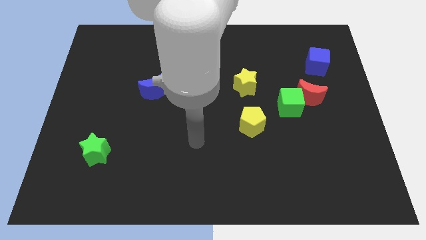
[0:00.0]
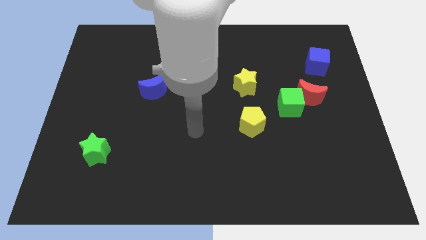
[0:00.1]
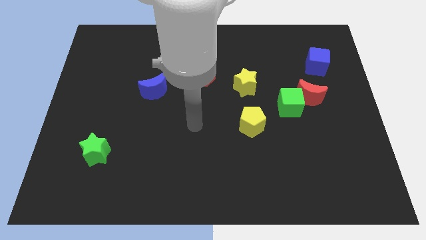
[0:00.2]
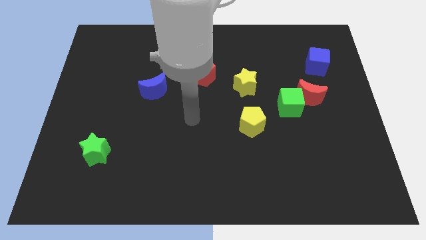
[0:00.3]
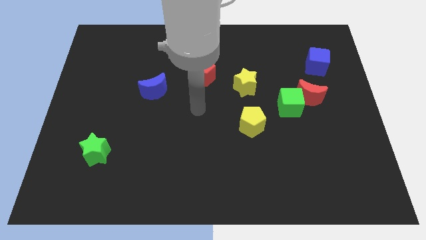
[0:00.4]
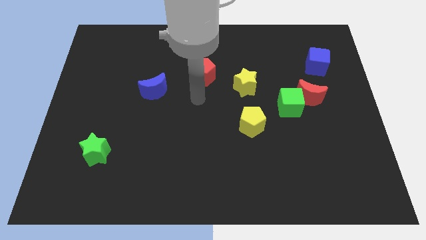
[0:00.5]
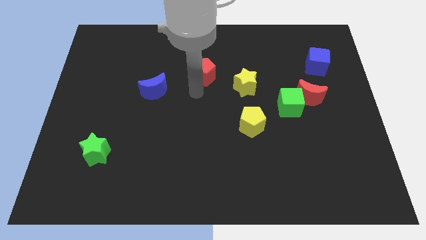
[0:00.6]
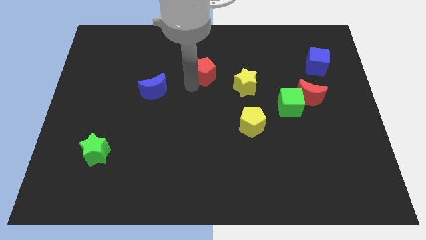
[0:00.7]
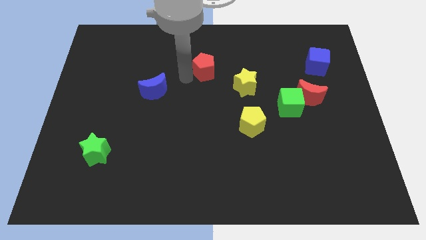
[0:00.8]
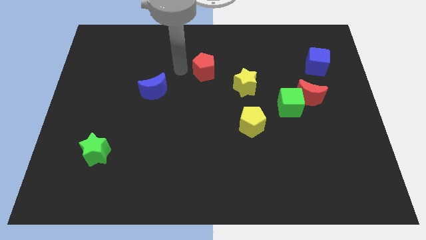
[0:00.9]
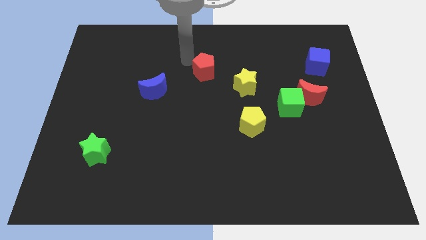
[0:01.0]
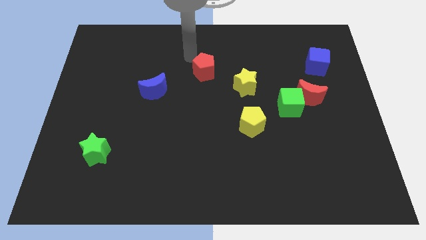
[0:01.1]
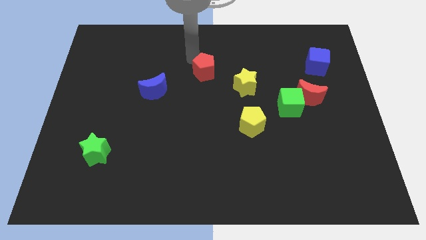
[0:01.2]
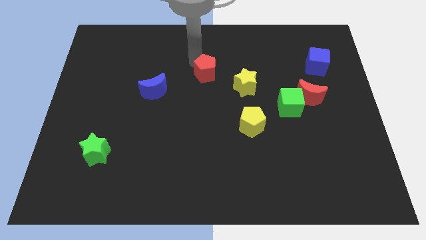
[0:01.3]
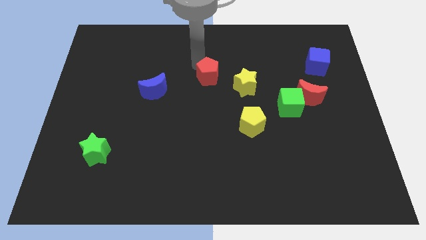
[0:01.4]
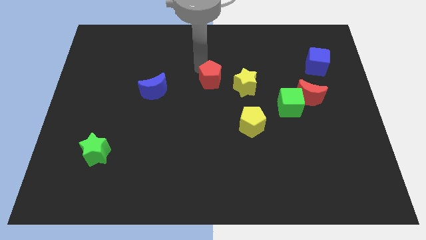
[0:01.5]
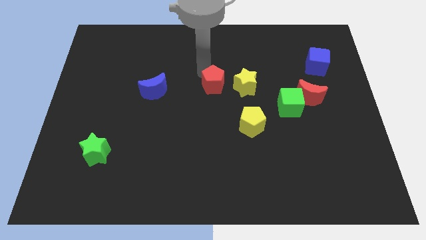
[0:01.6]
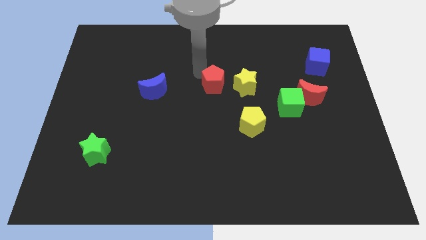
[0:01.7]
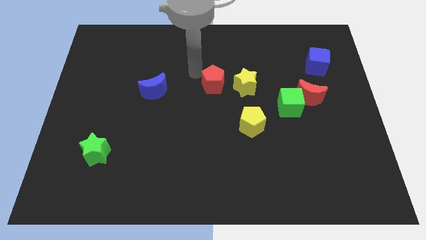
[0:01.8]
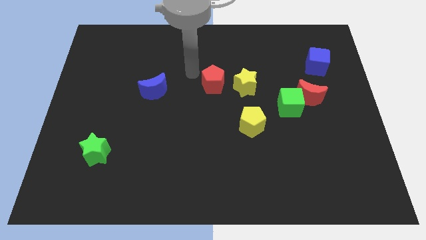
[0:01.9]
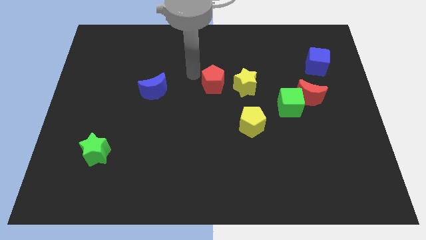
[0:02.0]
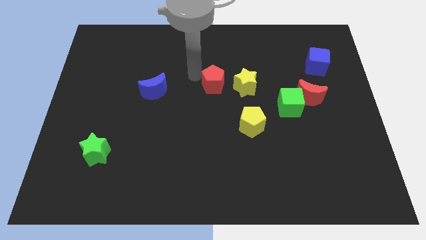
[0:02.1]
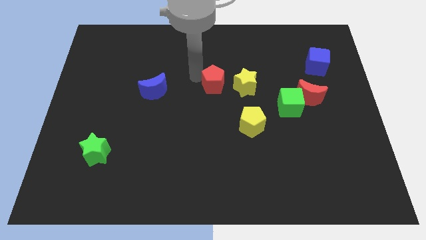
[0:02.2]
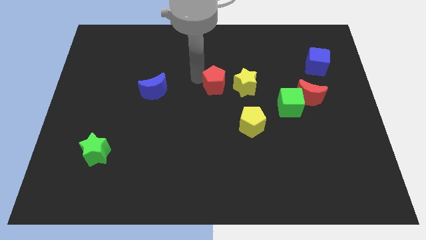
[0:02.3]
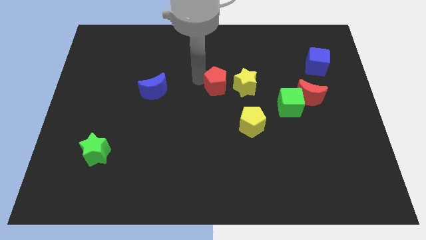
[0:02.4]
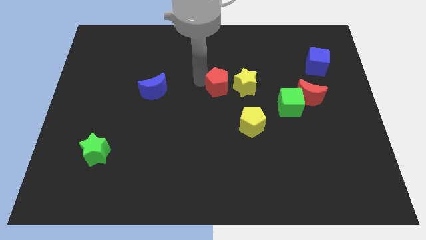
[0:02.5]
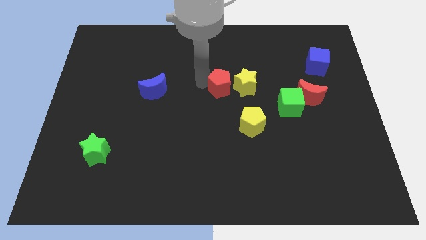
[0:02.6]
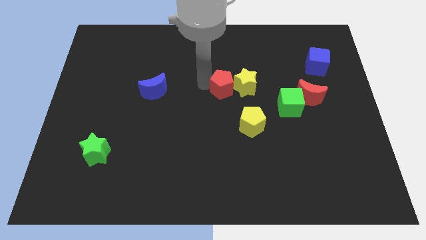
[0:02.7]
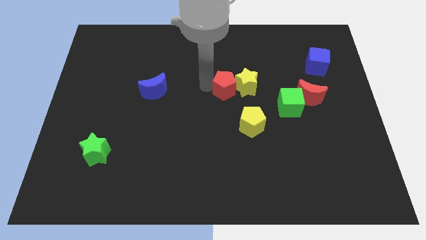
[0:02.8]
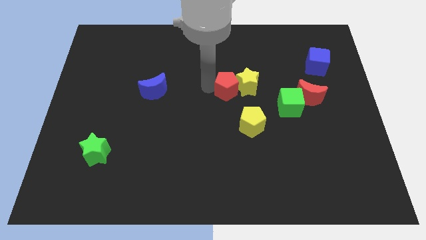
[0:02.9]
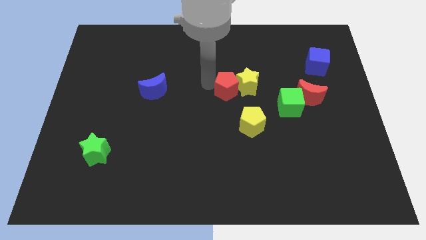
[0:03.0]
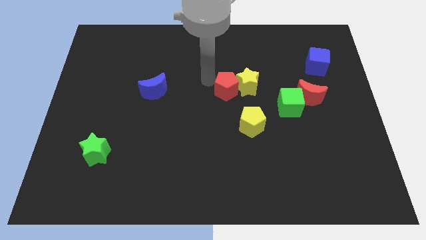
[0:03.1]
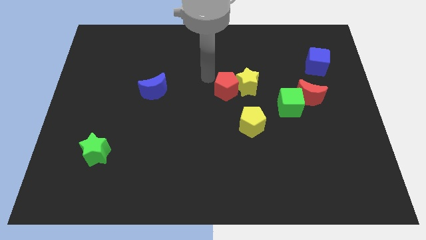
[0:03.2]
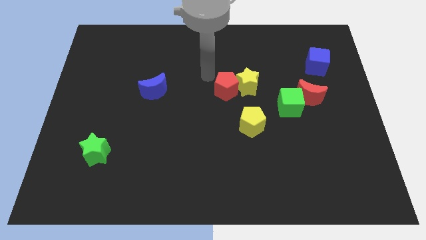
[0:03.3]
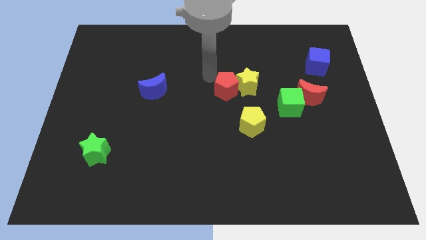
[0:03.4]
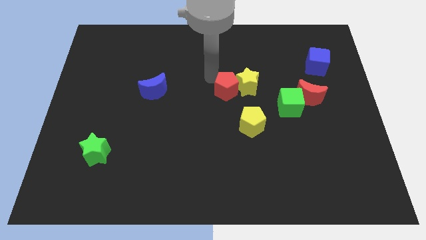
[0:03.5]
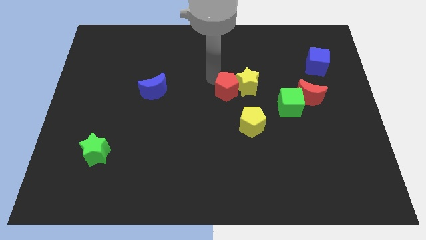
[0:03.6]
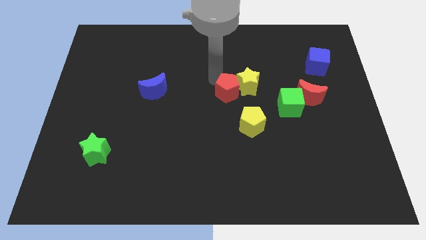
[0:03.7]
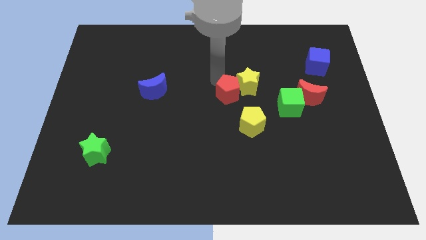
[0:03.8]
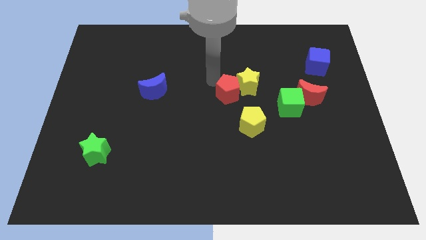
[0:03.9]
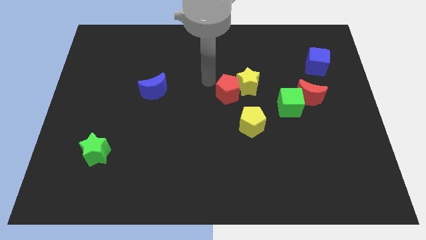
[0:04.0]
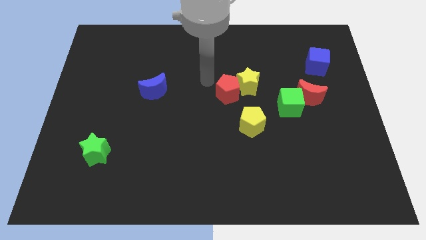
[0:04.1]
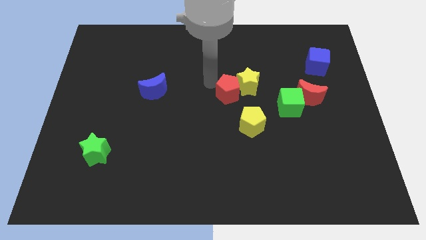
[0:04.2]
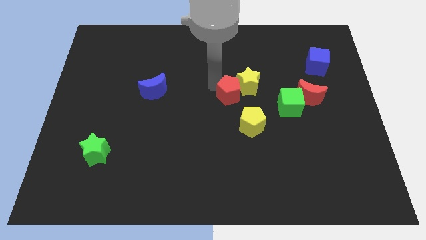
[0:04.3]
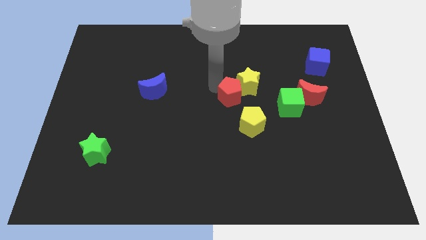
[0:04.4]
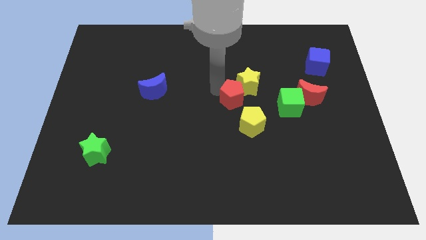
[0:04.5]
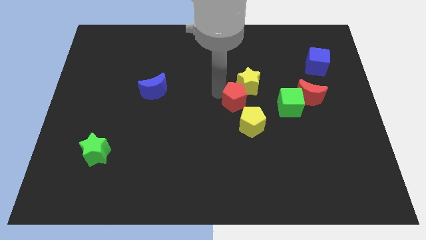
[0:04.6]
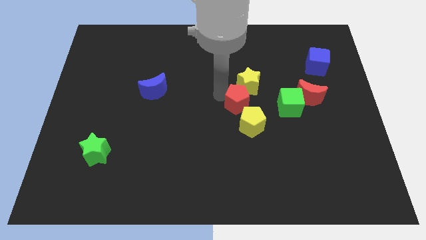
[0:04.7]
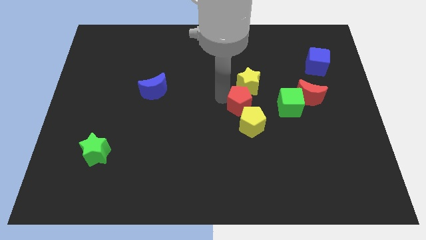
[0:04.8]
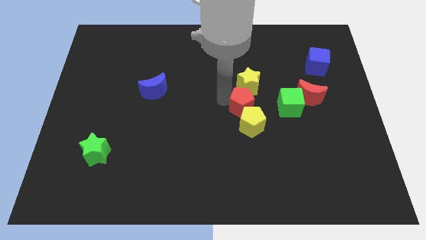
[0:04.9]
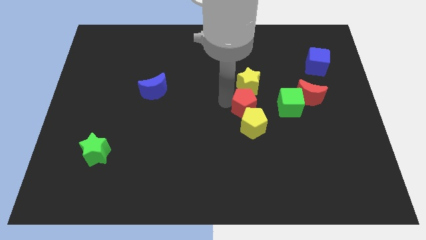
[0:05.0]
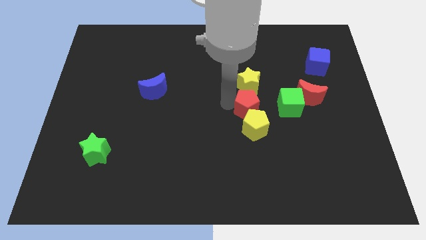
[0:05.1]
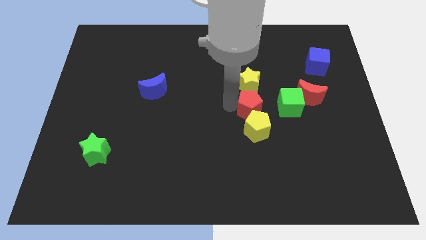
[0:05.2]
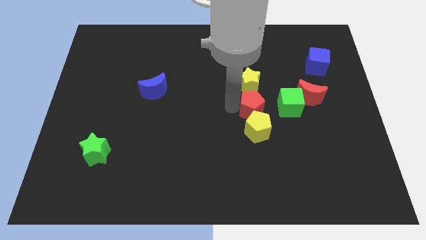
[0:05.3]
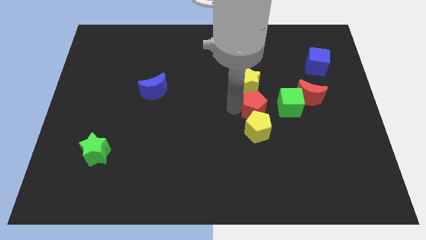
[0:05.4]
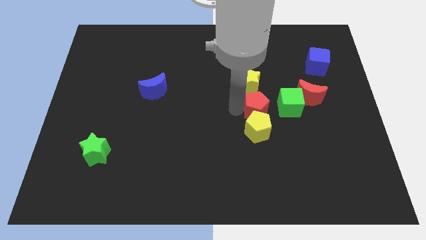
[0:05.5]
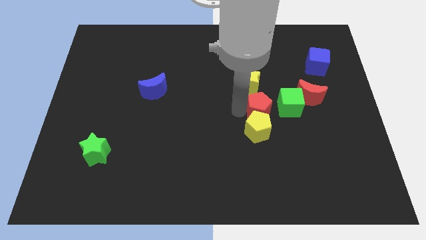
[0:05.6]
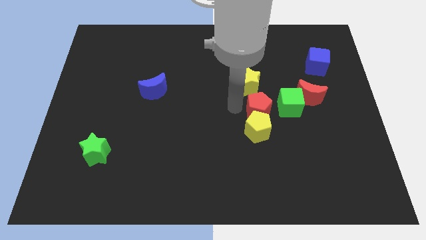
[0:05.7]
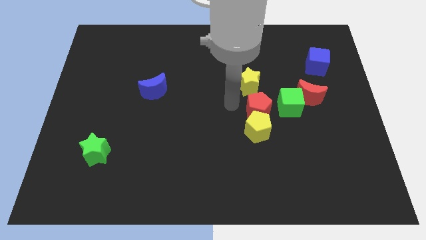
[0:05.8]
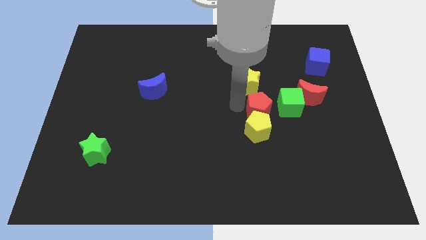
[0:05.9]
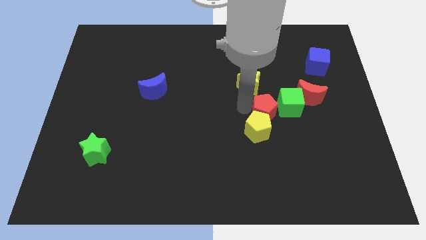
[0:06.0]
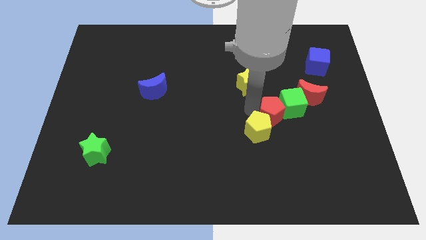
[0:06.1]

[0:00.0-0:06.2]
push the red pentagon downwards and to the right

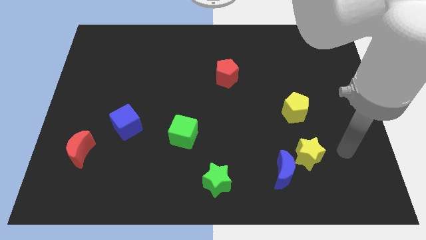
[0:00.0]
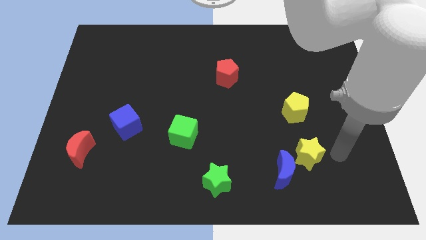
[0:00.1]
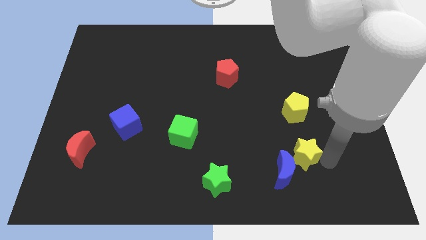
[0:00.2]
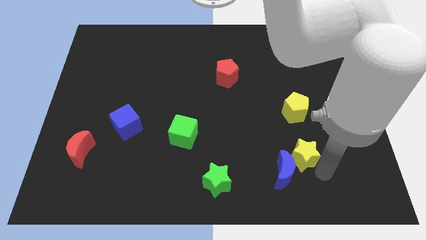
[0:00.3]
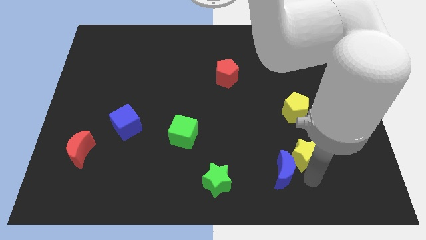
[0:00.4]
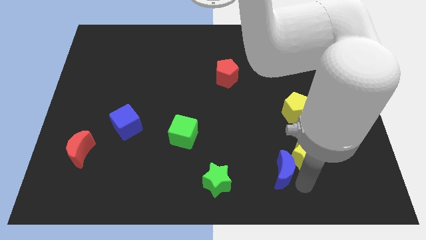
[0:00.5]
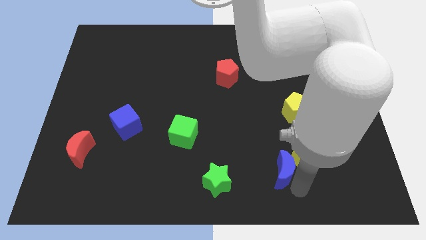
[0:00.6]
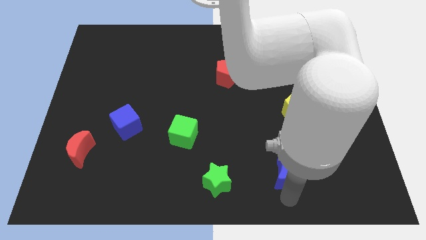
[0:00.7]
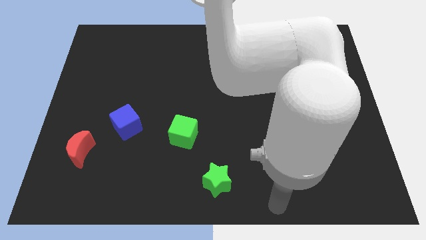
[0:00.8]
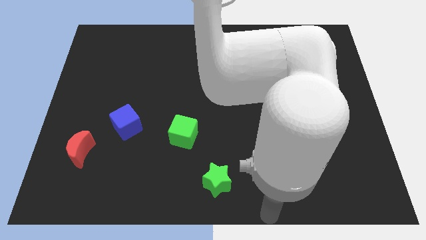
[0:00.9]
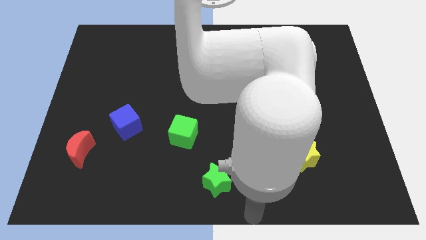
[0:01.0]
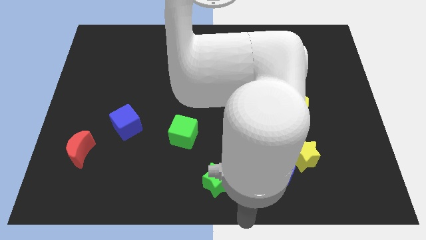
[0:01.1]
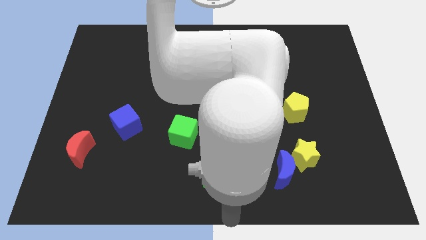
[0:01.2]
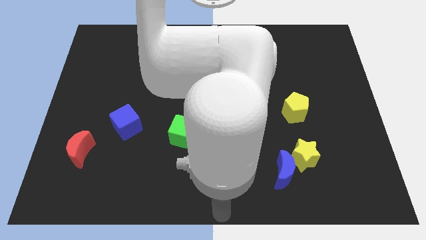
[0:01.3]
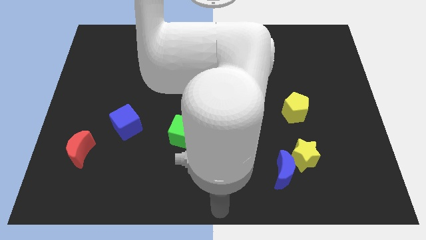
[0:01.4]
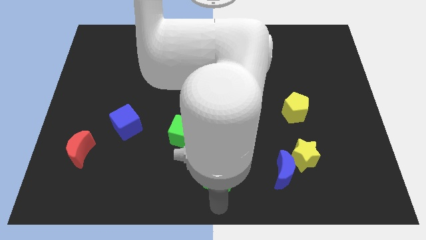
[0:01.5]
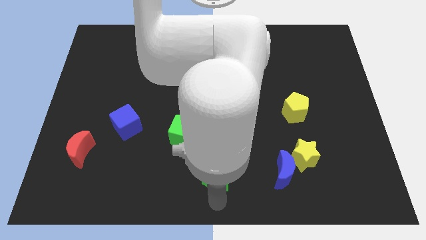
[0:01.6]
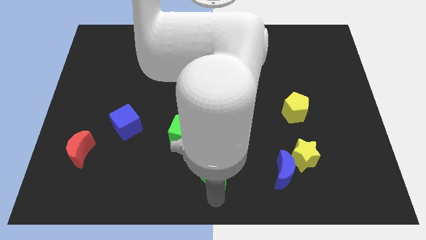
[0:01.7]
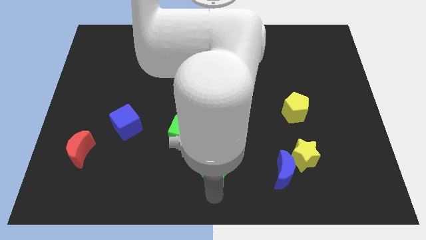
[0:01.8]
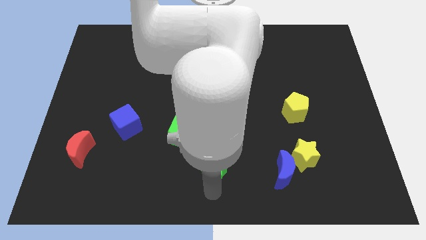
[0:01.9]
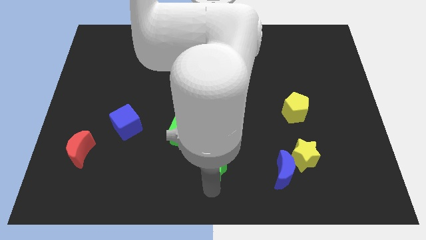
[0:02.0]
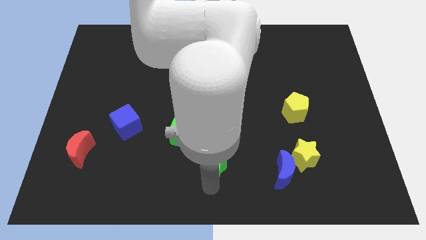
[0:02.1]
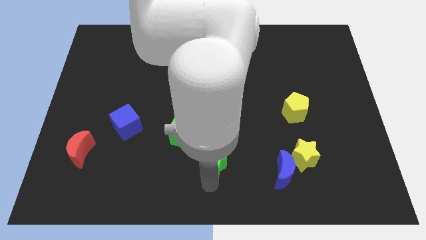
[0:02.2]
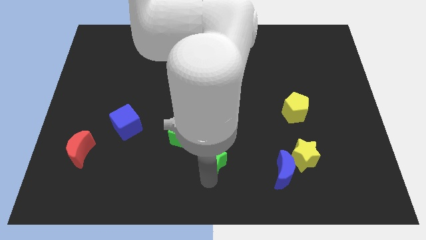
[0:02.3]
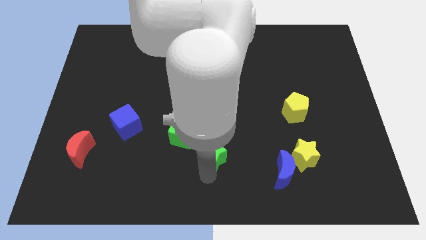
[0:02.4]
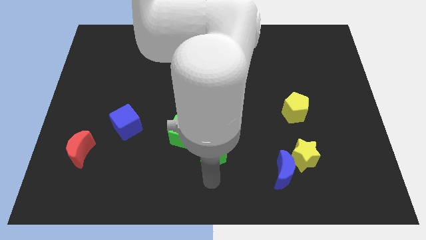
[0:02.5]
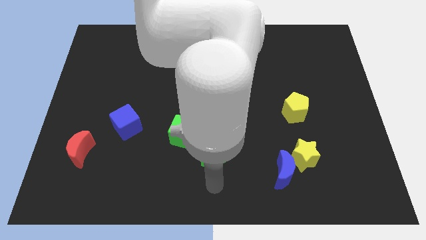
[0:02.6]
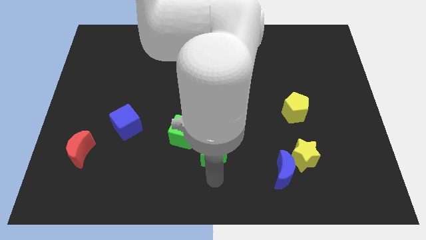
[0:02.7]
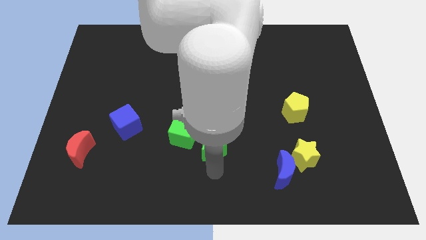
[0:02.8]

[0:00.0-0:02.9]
slightly push the green star upwards
